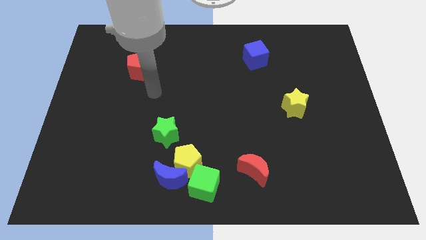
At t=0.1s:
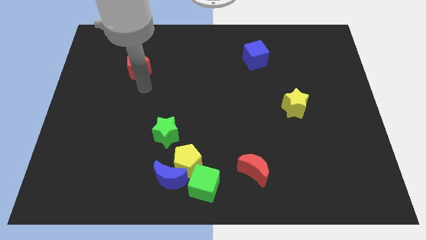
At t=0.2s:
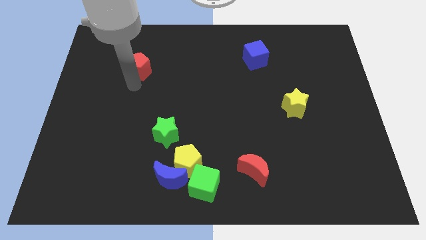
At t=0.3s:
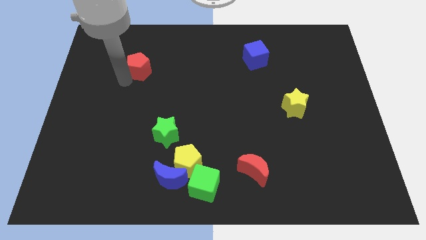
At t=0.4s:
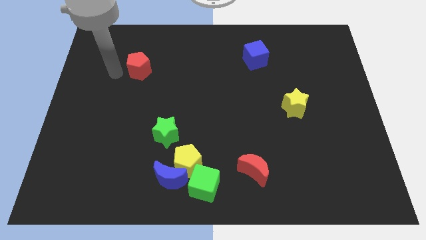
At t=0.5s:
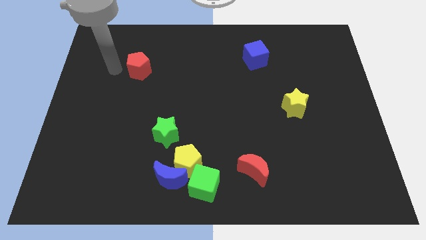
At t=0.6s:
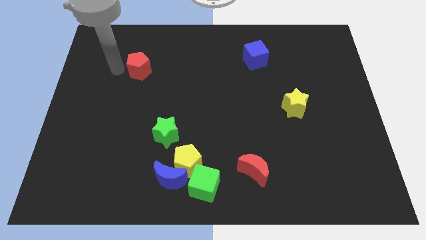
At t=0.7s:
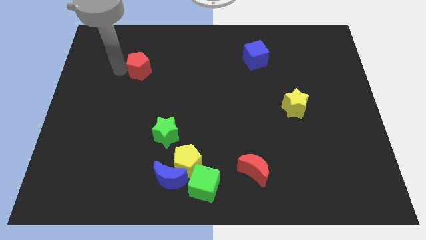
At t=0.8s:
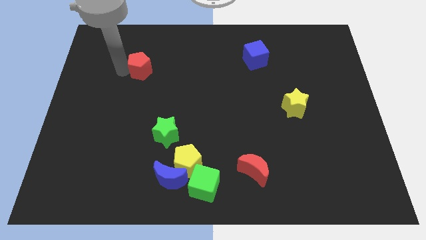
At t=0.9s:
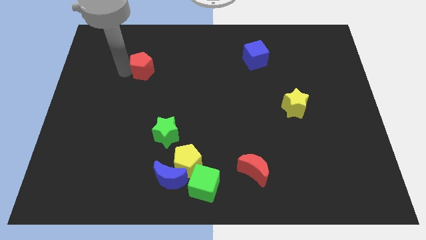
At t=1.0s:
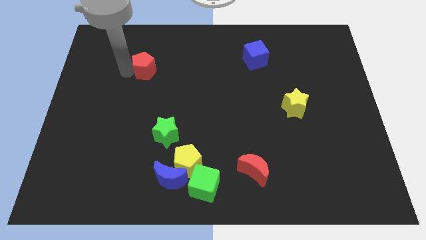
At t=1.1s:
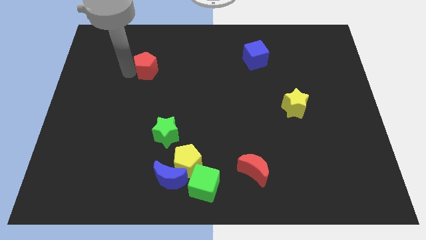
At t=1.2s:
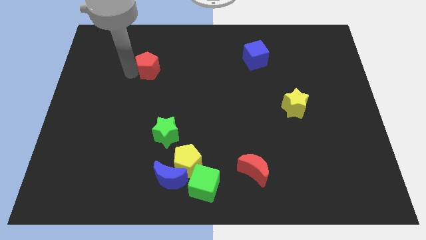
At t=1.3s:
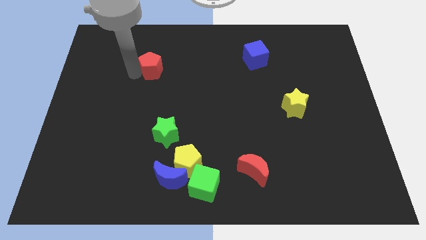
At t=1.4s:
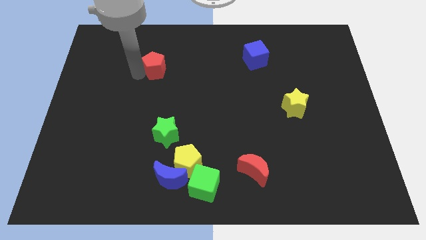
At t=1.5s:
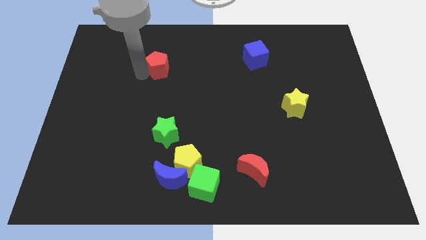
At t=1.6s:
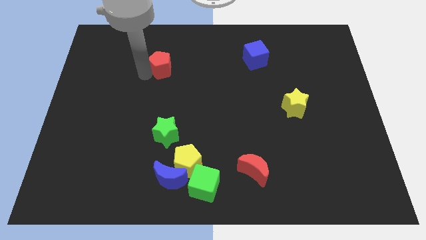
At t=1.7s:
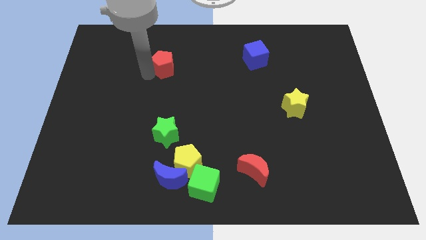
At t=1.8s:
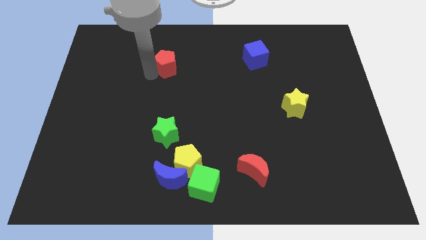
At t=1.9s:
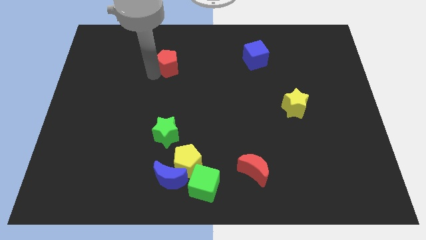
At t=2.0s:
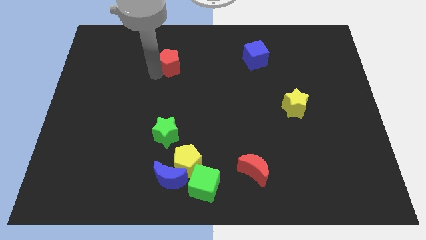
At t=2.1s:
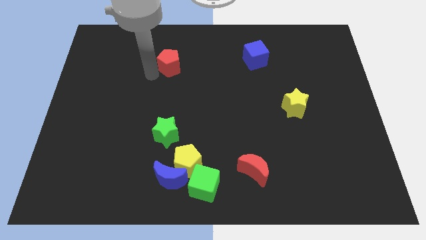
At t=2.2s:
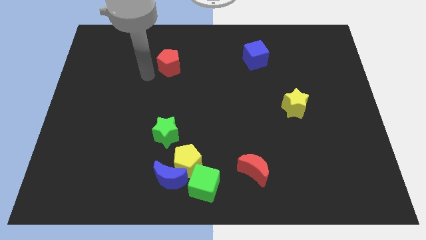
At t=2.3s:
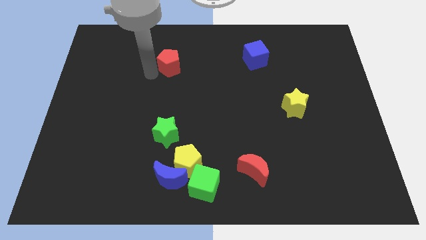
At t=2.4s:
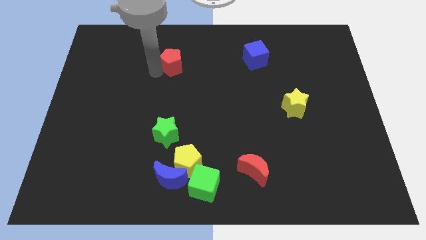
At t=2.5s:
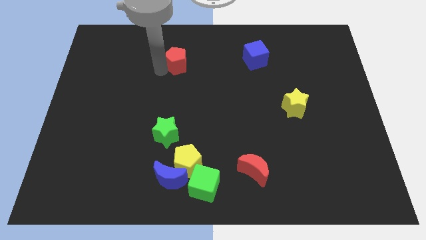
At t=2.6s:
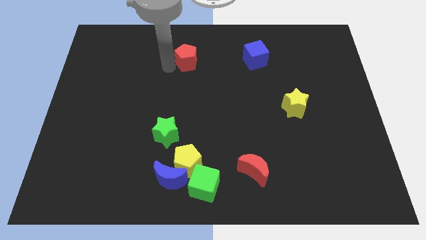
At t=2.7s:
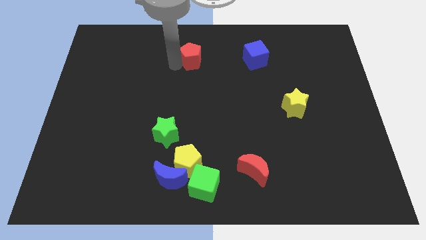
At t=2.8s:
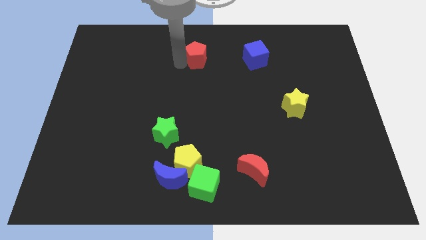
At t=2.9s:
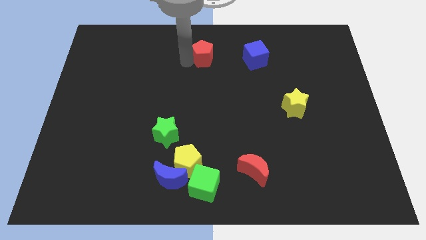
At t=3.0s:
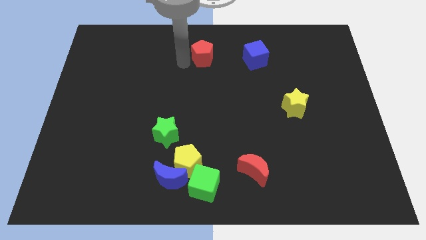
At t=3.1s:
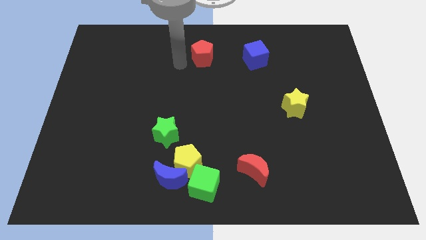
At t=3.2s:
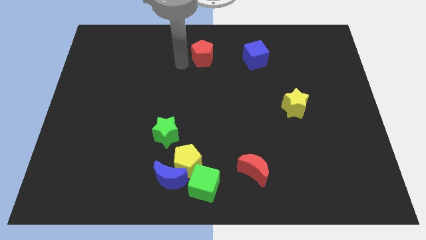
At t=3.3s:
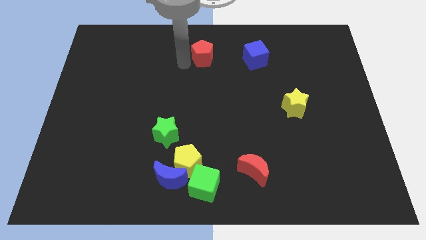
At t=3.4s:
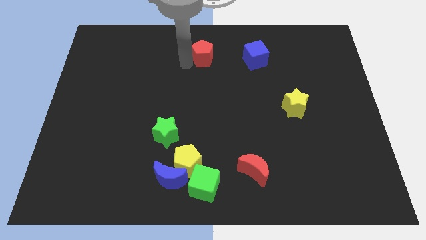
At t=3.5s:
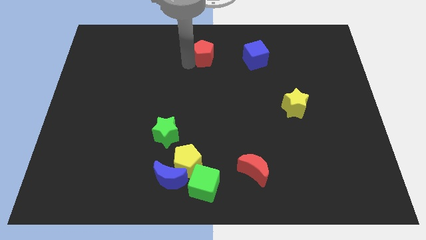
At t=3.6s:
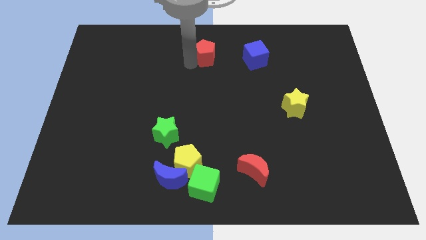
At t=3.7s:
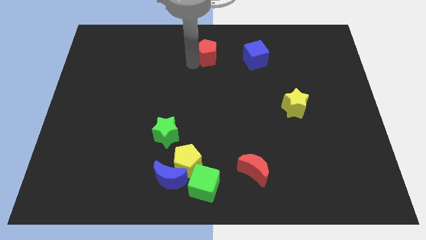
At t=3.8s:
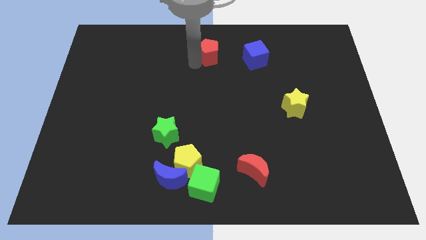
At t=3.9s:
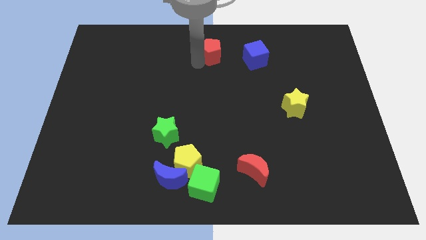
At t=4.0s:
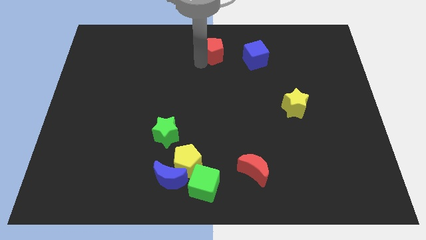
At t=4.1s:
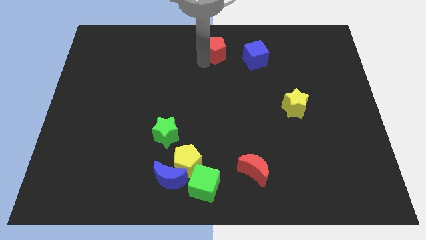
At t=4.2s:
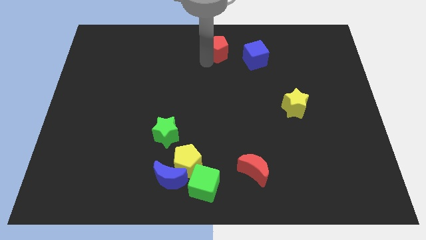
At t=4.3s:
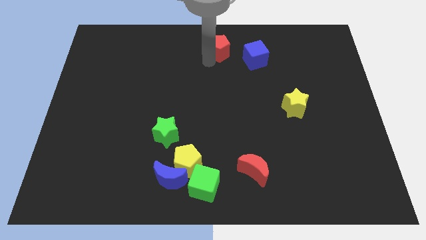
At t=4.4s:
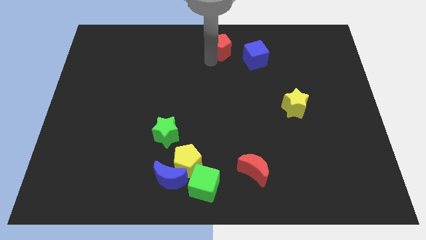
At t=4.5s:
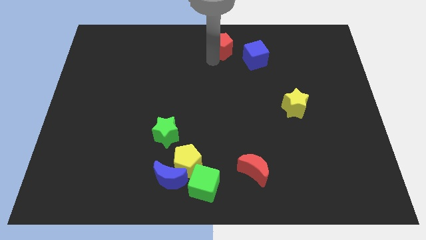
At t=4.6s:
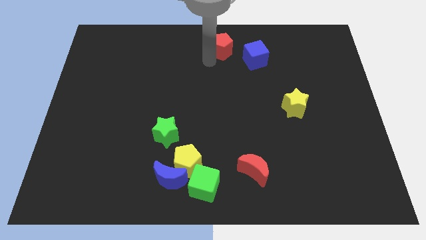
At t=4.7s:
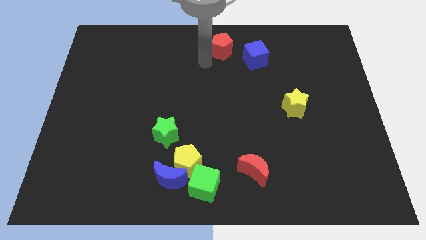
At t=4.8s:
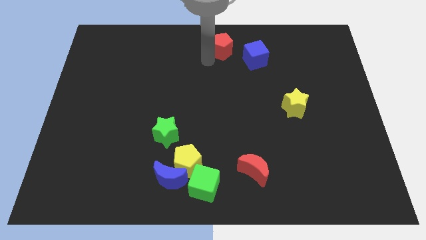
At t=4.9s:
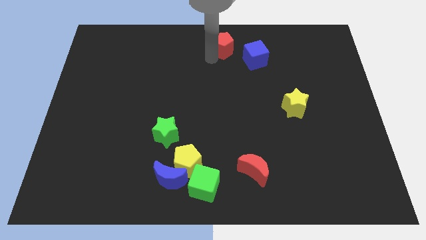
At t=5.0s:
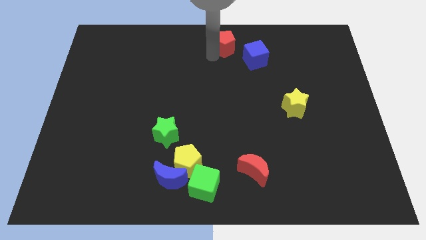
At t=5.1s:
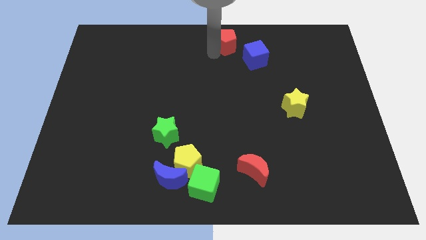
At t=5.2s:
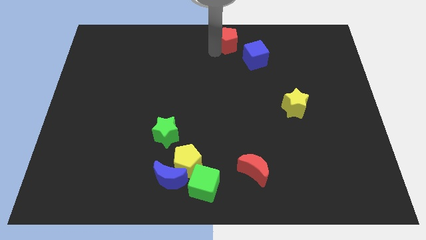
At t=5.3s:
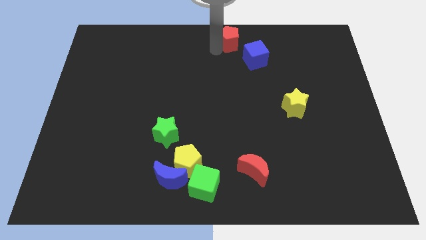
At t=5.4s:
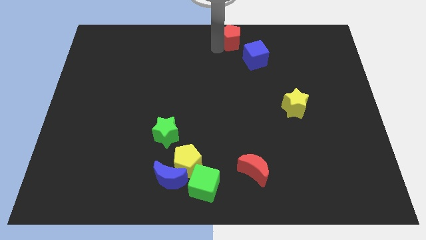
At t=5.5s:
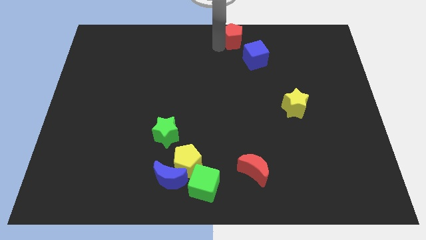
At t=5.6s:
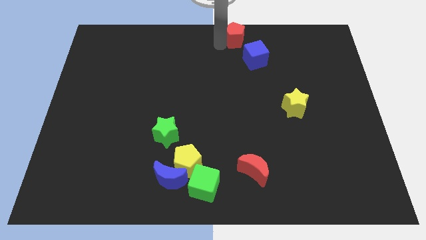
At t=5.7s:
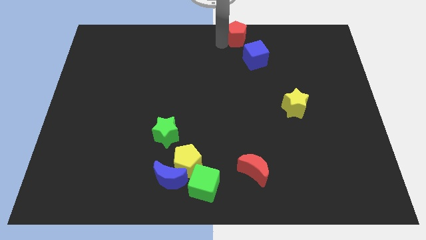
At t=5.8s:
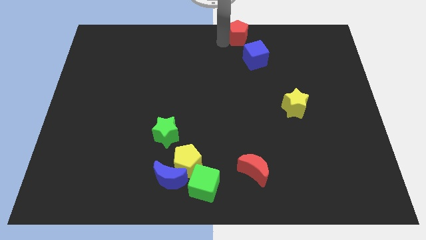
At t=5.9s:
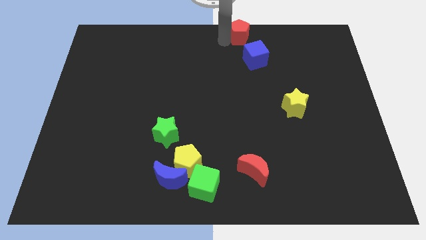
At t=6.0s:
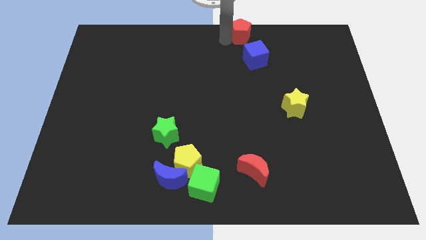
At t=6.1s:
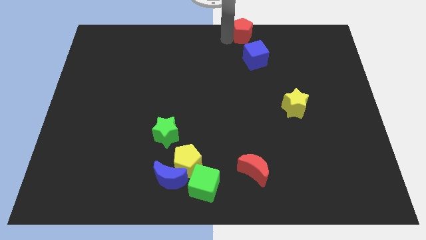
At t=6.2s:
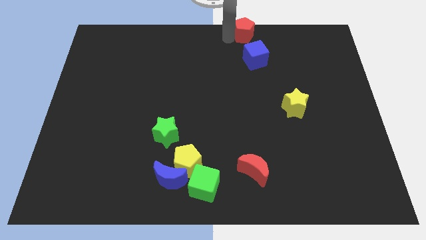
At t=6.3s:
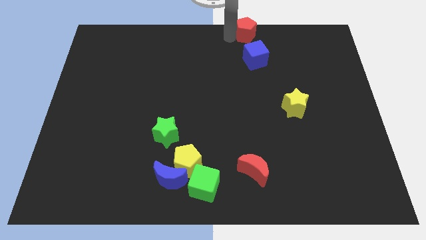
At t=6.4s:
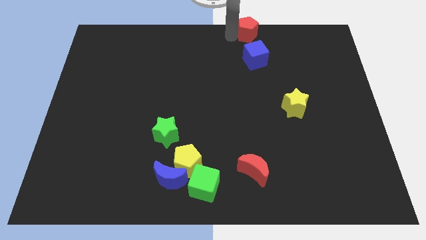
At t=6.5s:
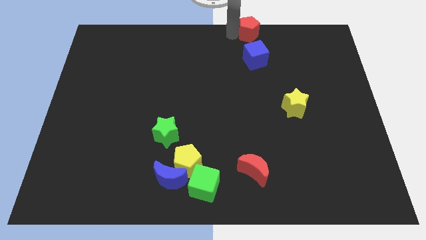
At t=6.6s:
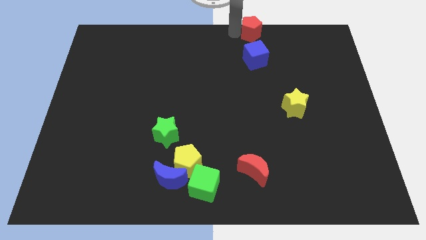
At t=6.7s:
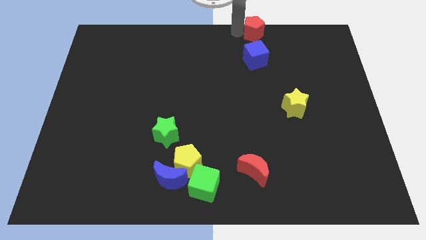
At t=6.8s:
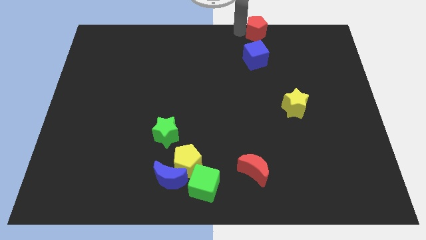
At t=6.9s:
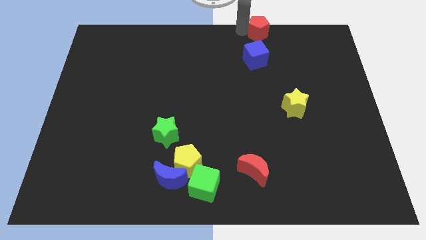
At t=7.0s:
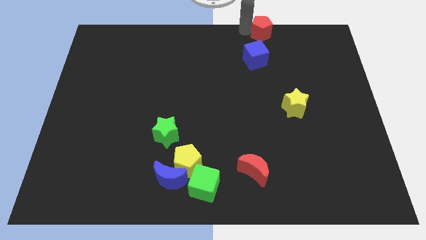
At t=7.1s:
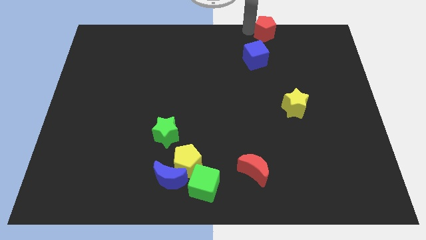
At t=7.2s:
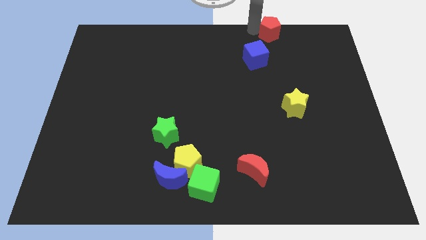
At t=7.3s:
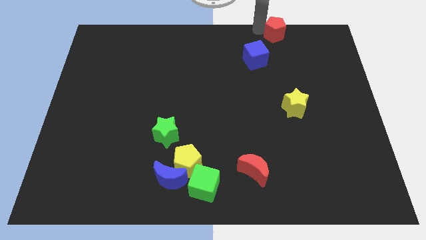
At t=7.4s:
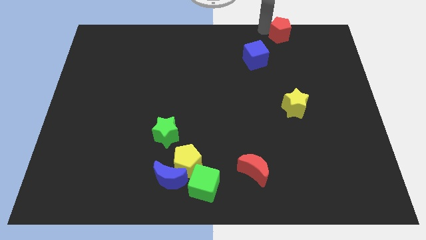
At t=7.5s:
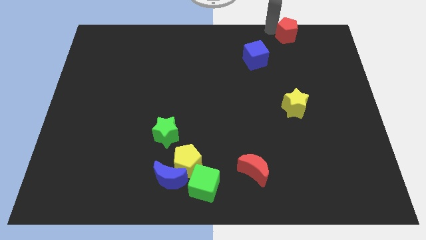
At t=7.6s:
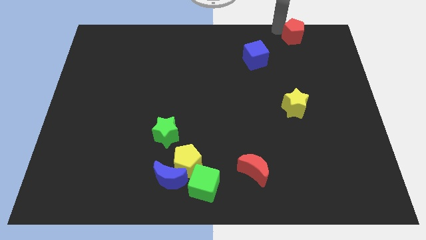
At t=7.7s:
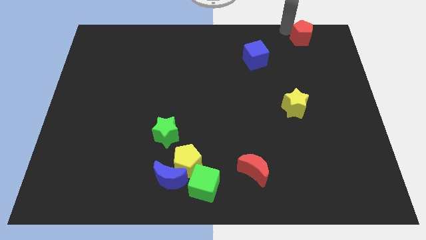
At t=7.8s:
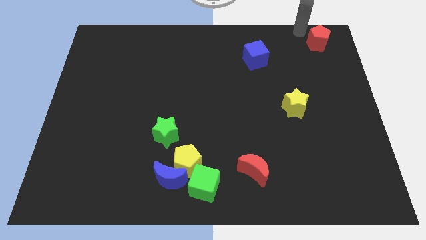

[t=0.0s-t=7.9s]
slide the red pentagon to the upper right corner
